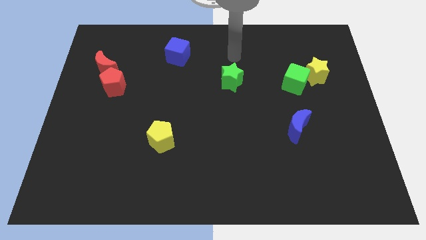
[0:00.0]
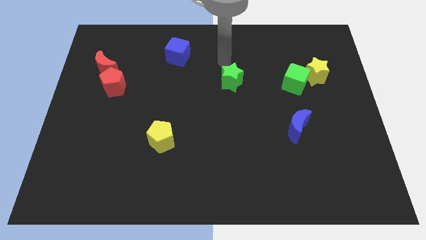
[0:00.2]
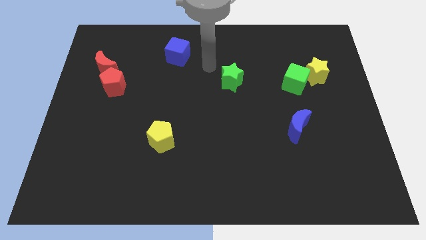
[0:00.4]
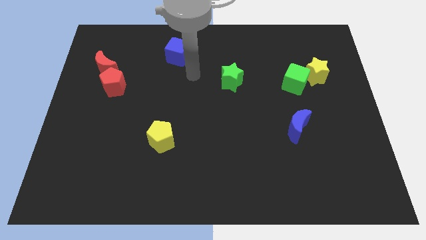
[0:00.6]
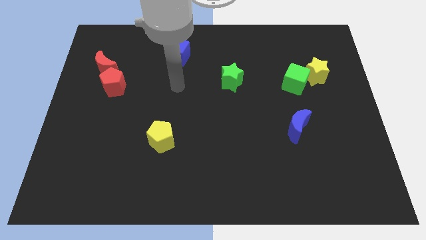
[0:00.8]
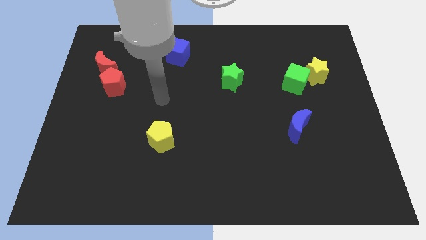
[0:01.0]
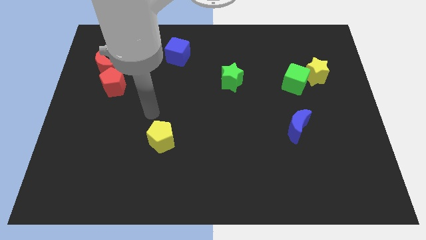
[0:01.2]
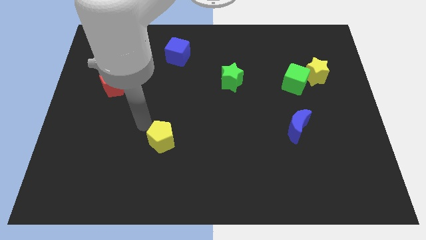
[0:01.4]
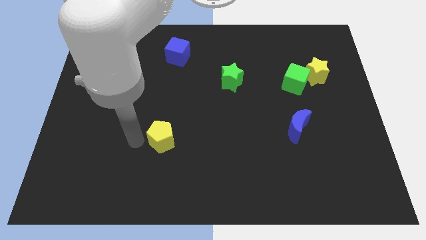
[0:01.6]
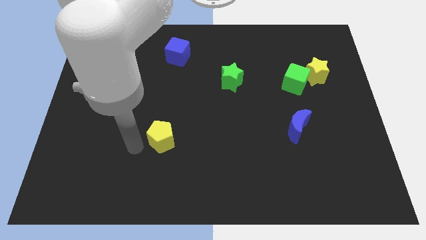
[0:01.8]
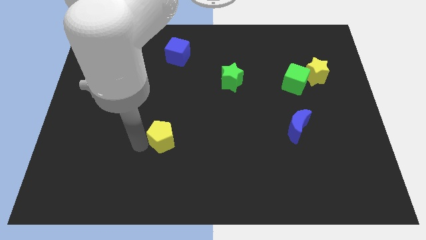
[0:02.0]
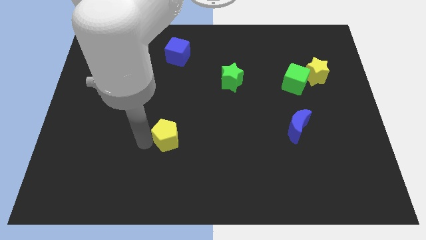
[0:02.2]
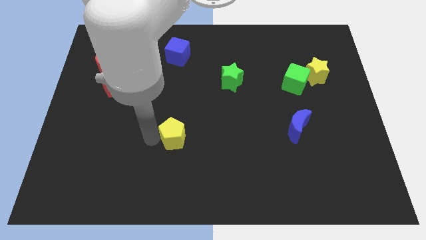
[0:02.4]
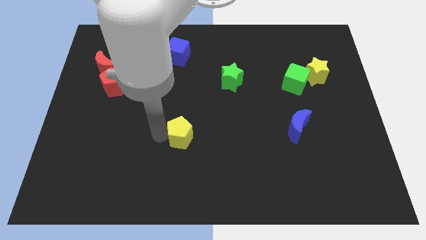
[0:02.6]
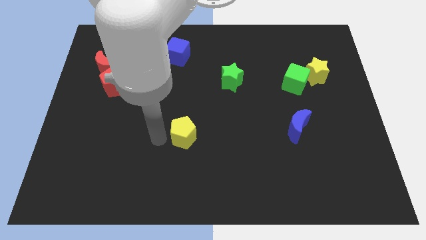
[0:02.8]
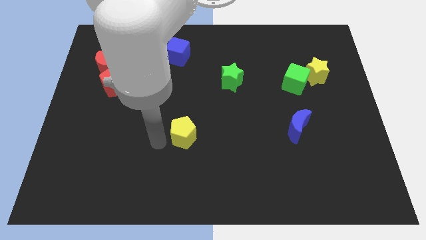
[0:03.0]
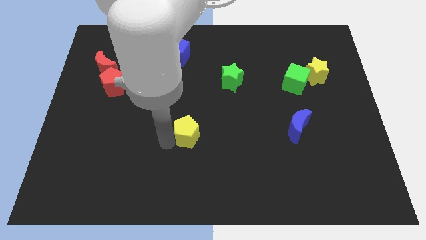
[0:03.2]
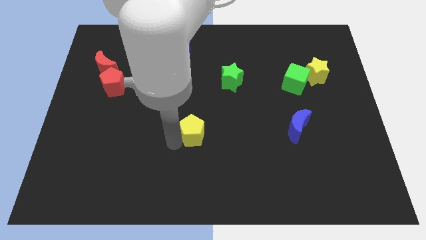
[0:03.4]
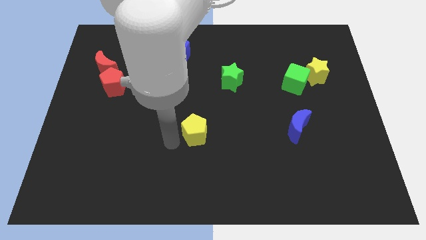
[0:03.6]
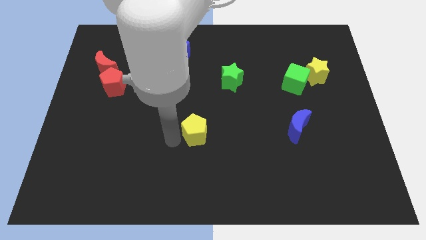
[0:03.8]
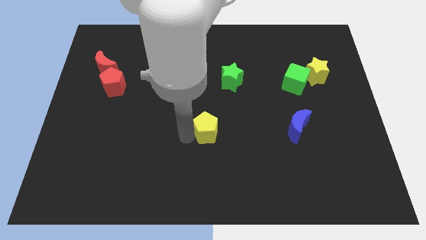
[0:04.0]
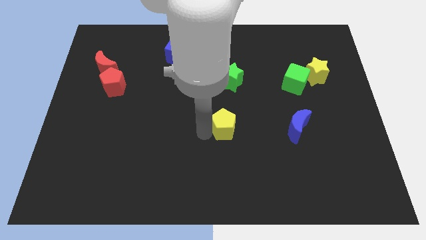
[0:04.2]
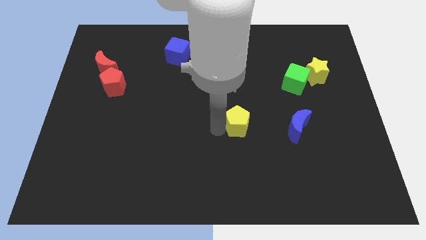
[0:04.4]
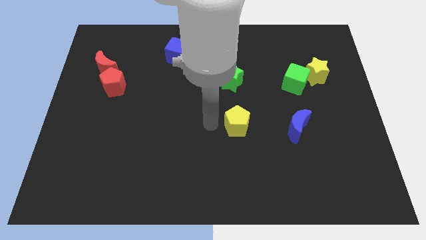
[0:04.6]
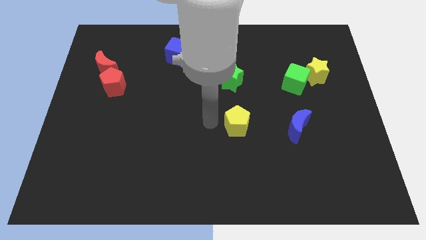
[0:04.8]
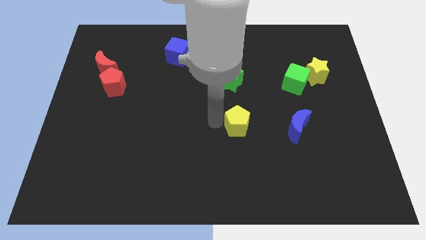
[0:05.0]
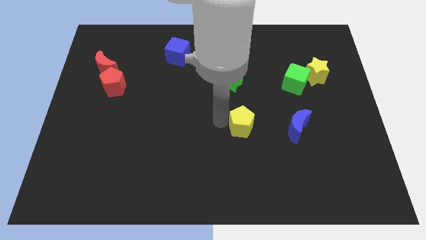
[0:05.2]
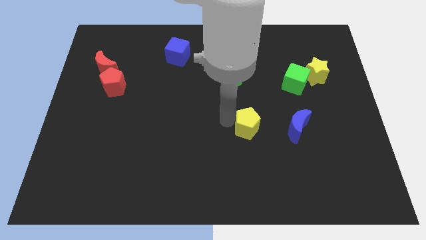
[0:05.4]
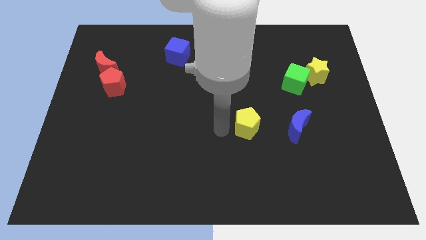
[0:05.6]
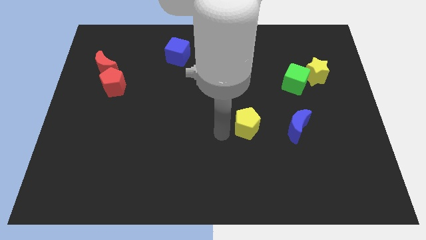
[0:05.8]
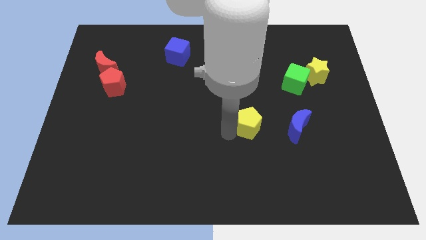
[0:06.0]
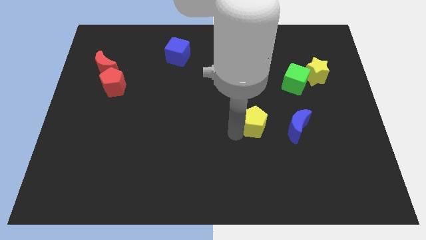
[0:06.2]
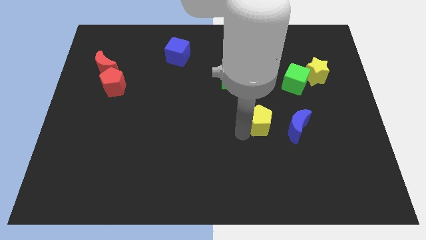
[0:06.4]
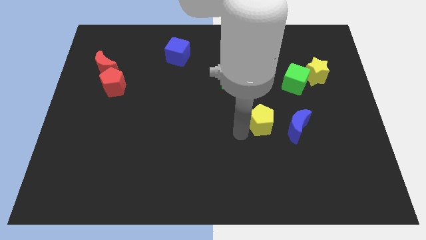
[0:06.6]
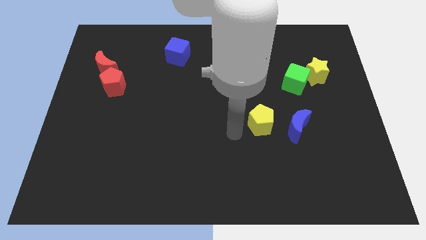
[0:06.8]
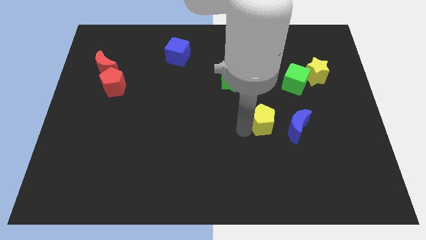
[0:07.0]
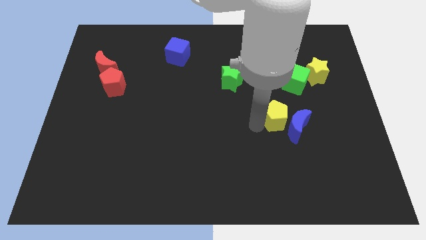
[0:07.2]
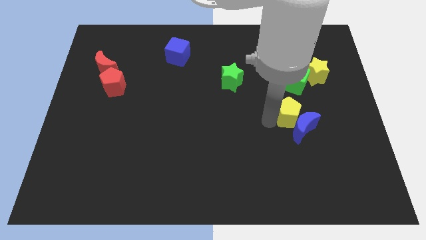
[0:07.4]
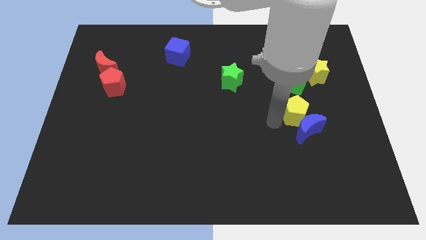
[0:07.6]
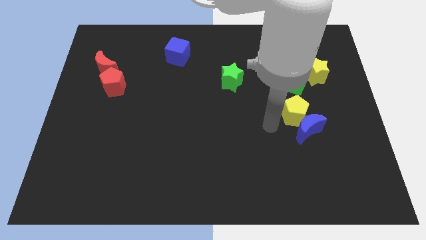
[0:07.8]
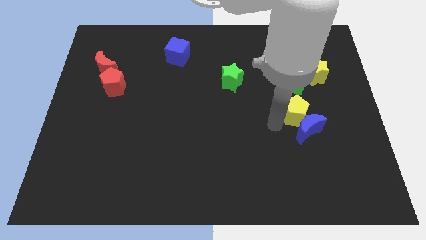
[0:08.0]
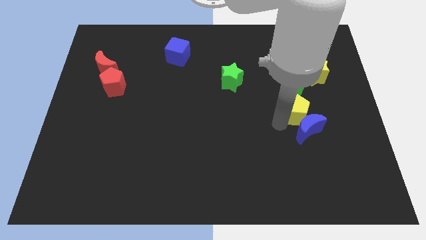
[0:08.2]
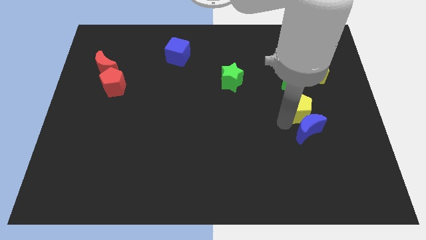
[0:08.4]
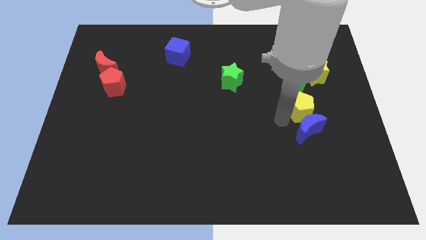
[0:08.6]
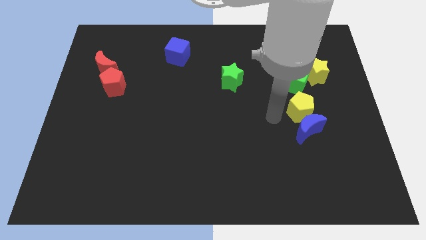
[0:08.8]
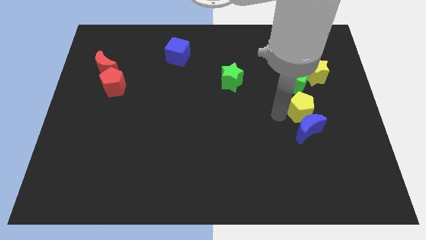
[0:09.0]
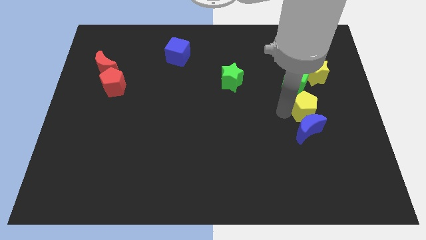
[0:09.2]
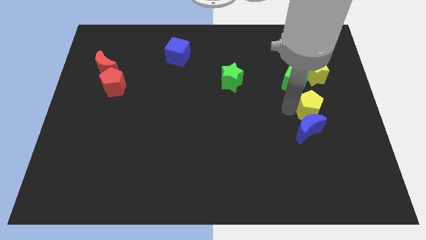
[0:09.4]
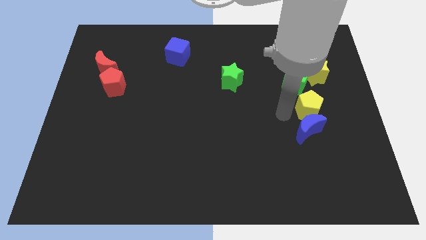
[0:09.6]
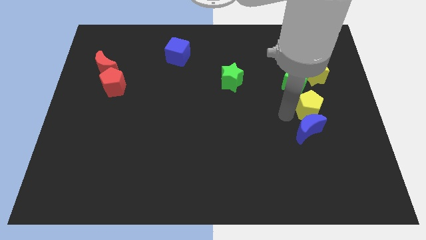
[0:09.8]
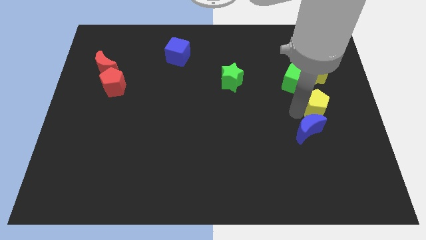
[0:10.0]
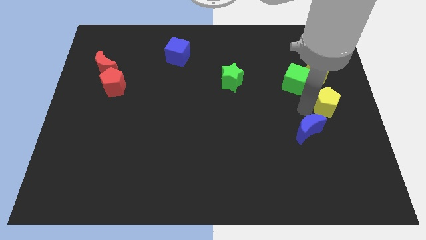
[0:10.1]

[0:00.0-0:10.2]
put the yellow pentagon to the center right

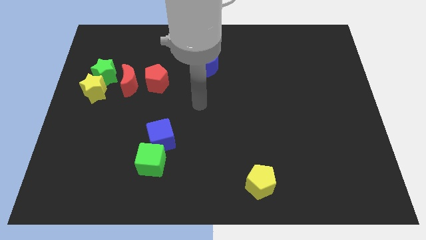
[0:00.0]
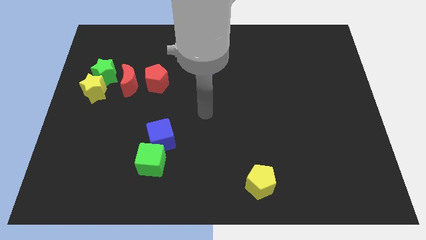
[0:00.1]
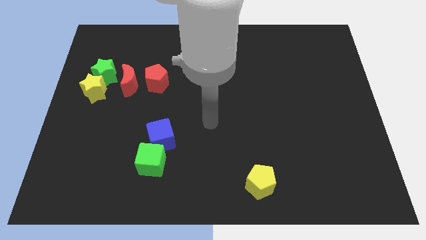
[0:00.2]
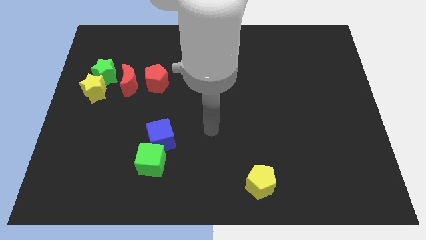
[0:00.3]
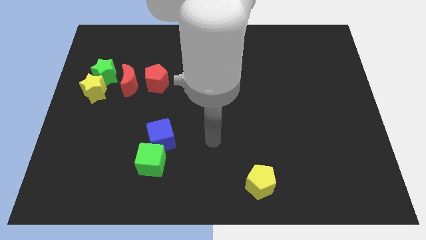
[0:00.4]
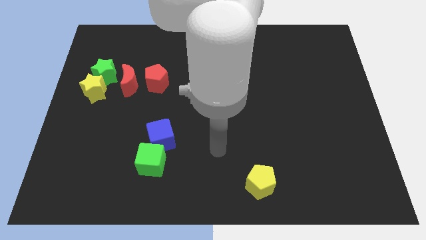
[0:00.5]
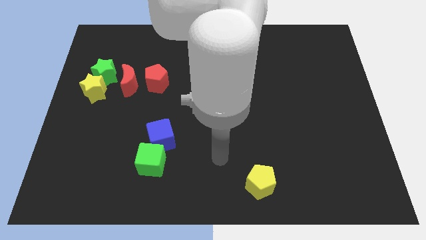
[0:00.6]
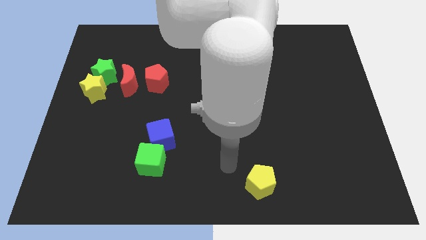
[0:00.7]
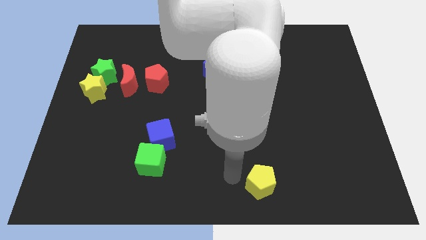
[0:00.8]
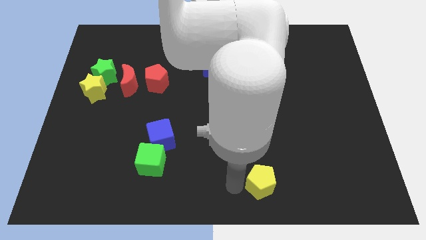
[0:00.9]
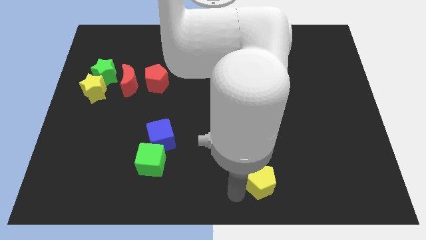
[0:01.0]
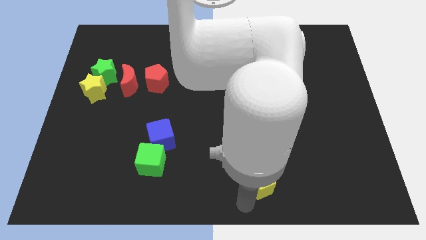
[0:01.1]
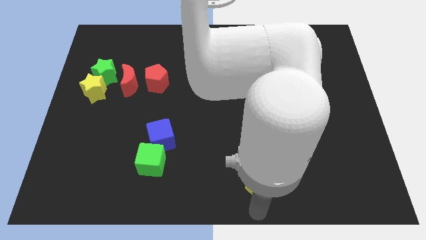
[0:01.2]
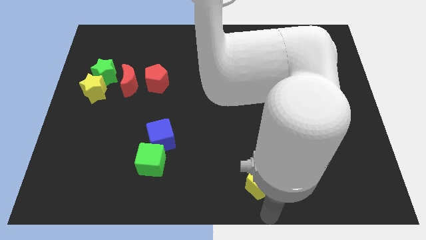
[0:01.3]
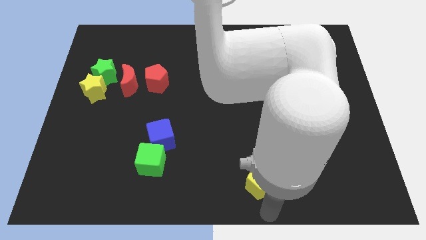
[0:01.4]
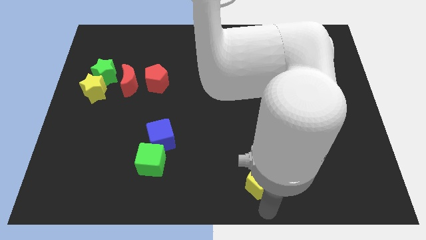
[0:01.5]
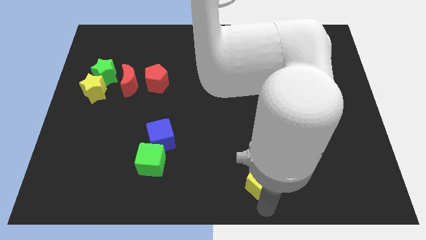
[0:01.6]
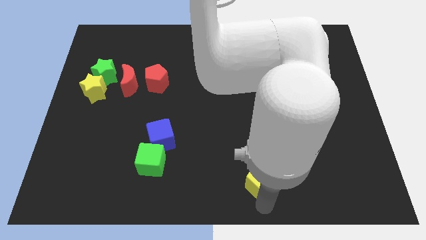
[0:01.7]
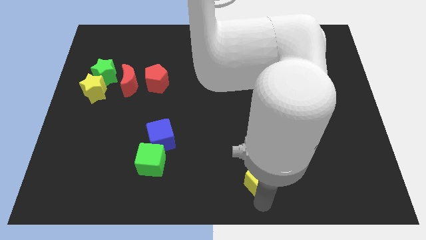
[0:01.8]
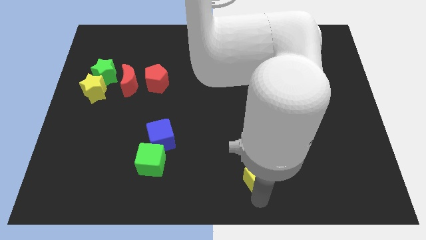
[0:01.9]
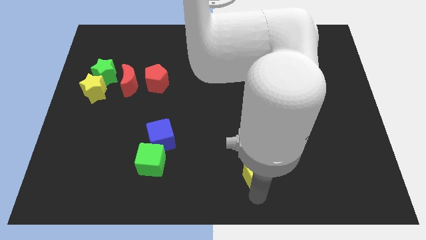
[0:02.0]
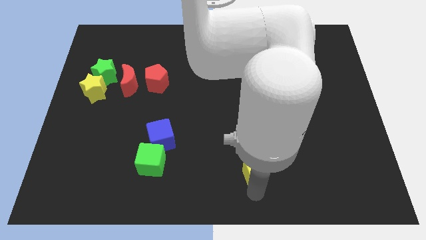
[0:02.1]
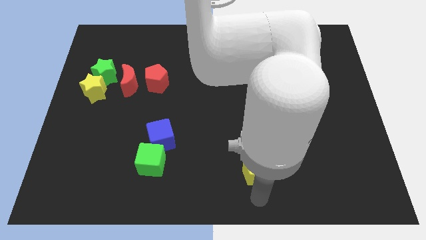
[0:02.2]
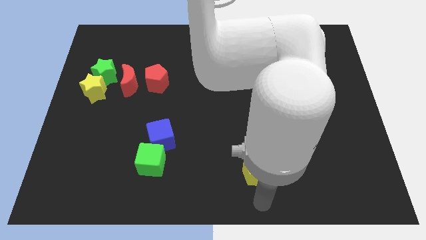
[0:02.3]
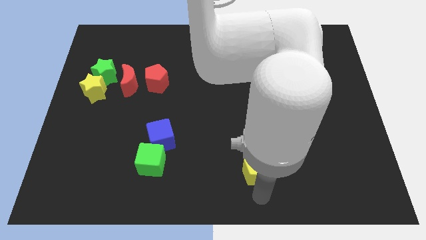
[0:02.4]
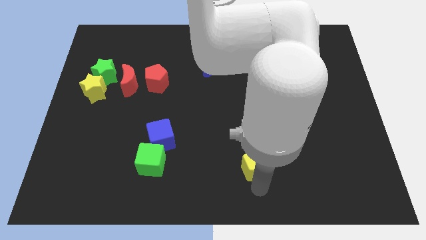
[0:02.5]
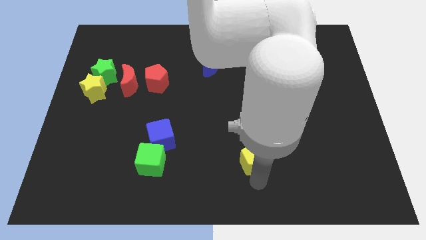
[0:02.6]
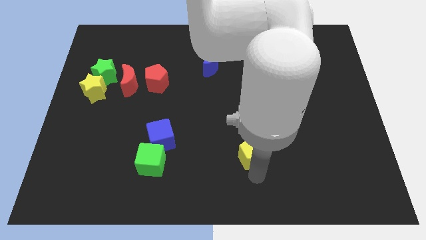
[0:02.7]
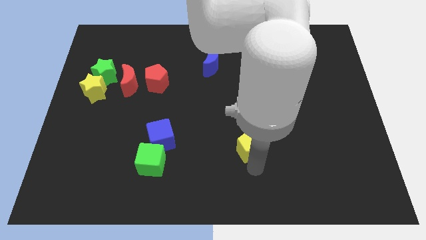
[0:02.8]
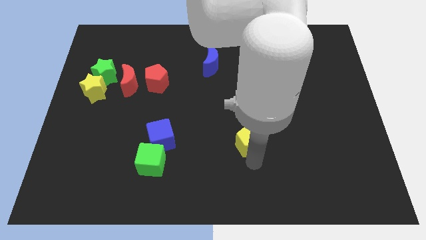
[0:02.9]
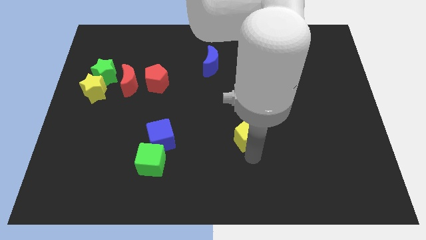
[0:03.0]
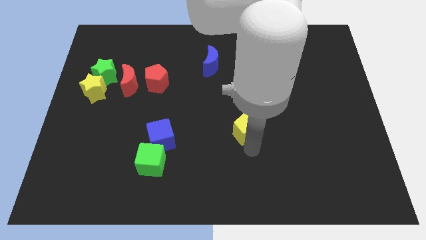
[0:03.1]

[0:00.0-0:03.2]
put the yellow pentagon to the center of the board
